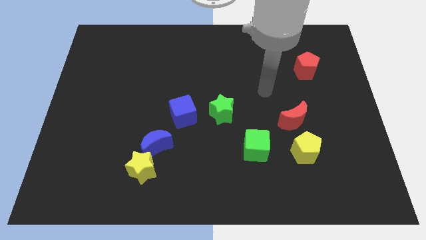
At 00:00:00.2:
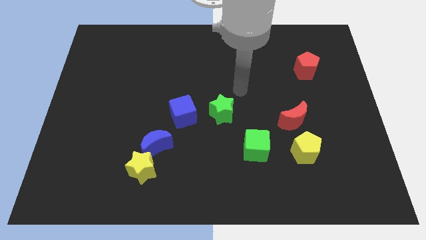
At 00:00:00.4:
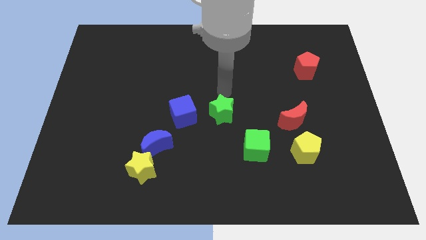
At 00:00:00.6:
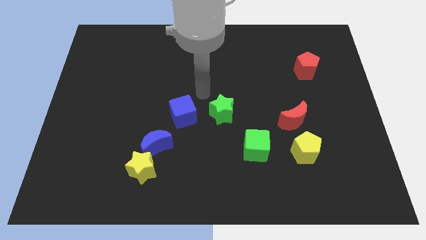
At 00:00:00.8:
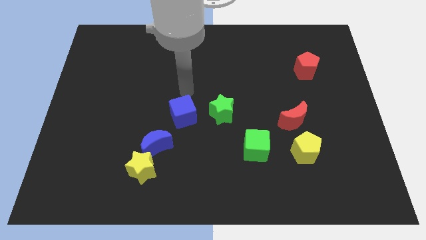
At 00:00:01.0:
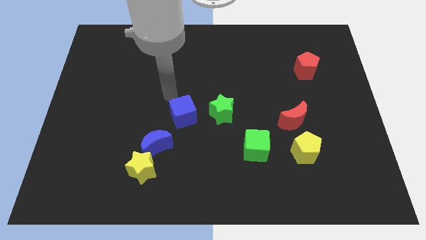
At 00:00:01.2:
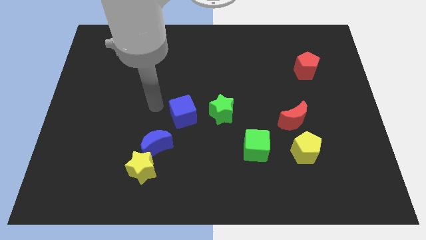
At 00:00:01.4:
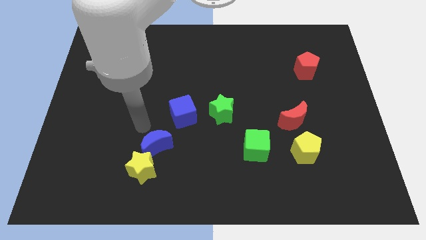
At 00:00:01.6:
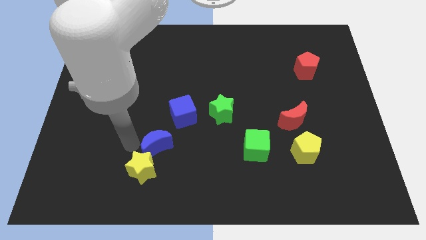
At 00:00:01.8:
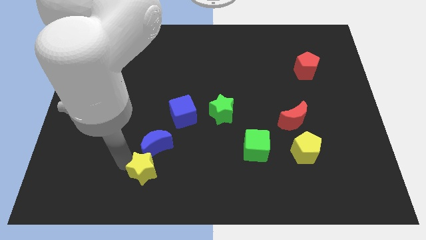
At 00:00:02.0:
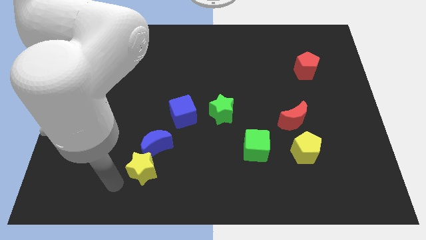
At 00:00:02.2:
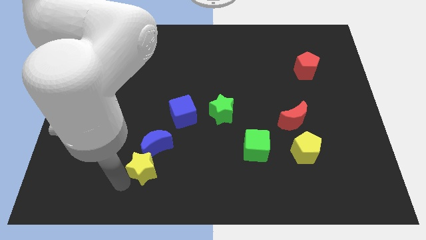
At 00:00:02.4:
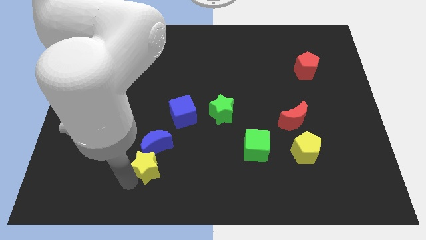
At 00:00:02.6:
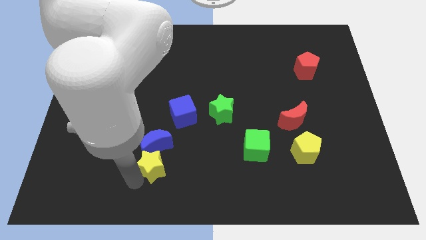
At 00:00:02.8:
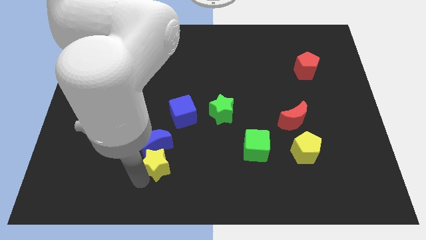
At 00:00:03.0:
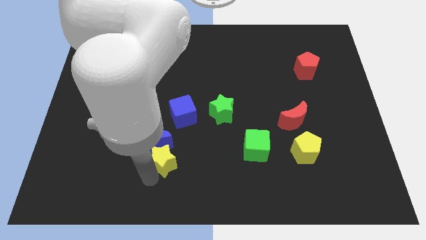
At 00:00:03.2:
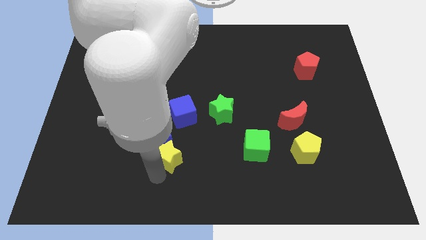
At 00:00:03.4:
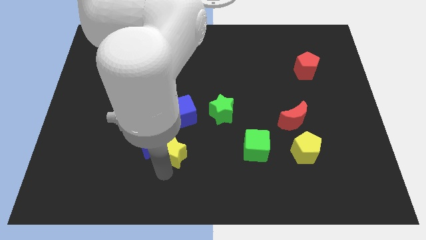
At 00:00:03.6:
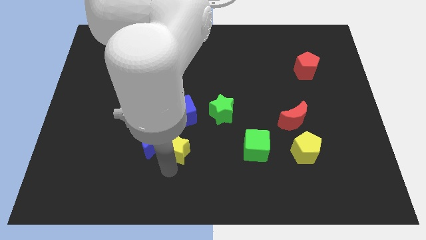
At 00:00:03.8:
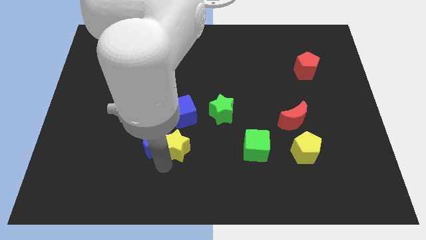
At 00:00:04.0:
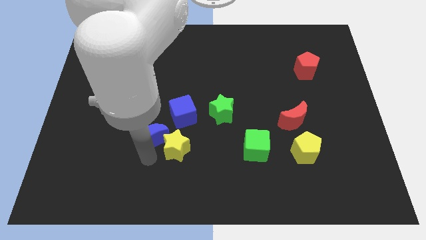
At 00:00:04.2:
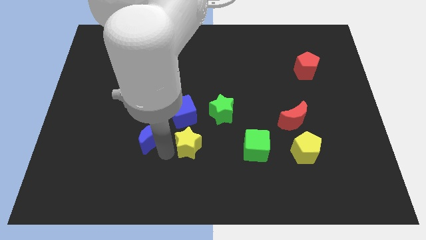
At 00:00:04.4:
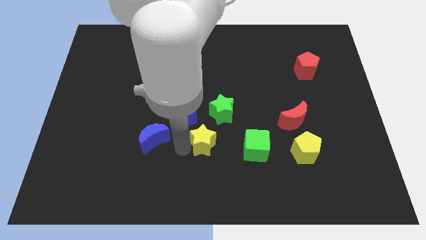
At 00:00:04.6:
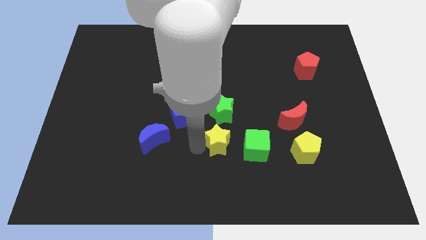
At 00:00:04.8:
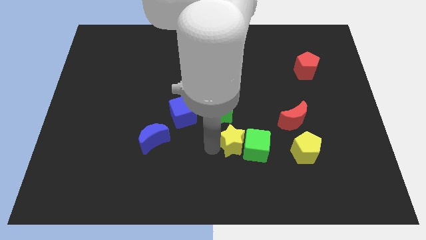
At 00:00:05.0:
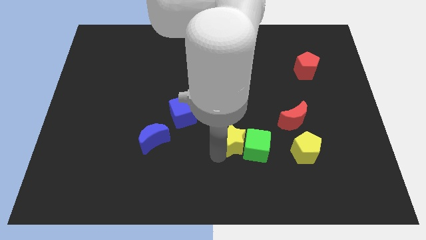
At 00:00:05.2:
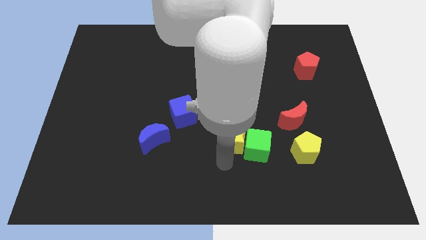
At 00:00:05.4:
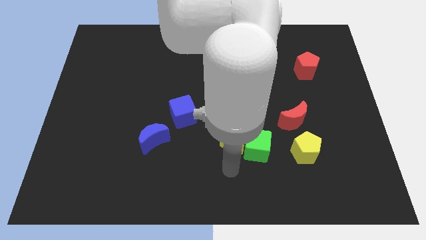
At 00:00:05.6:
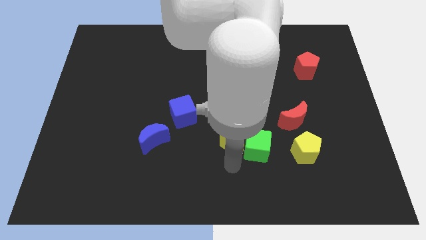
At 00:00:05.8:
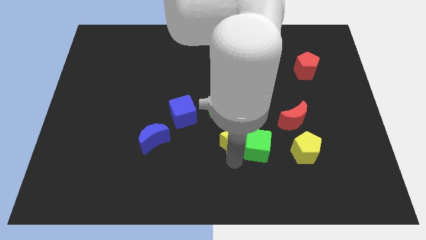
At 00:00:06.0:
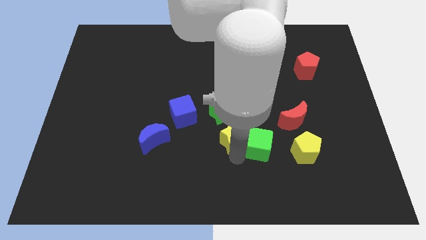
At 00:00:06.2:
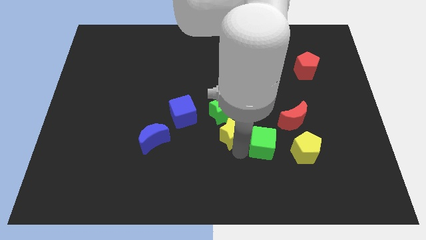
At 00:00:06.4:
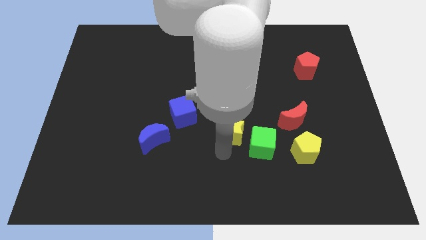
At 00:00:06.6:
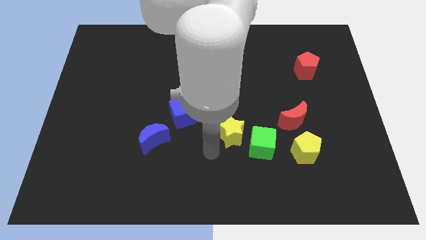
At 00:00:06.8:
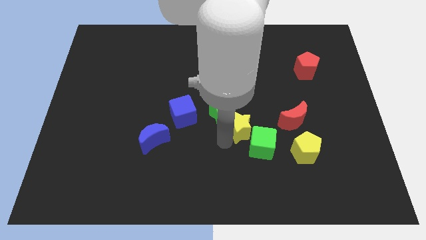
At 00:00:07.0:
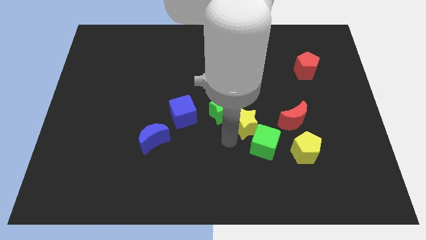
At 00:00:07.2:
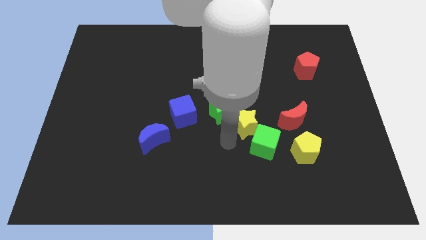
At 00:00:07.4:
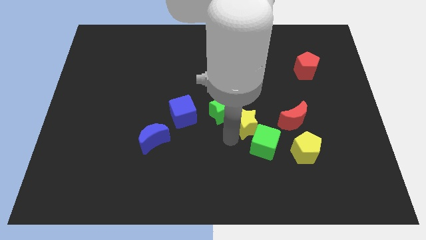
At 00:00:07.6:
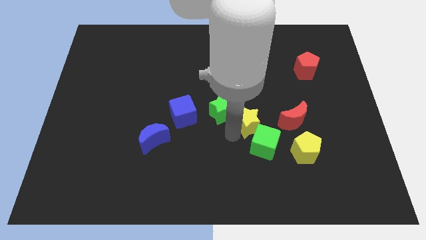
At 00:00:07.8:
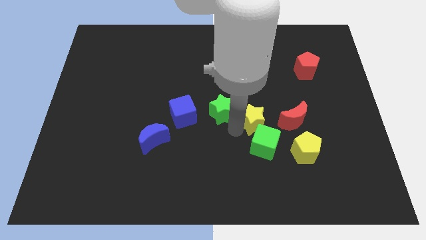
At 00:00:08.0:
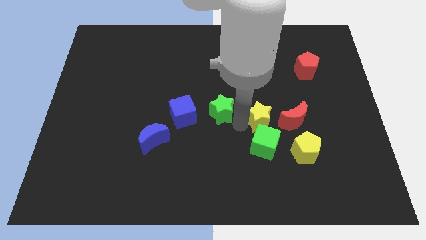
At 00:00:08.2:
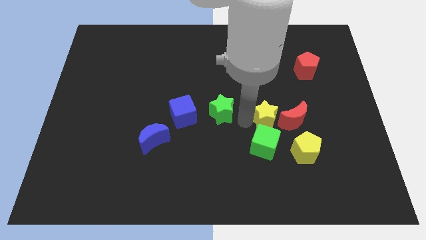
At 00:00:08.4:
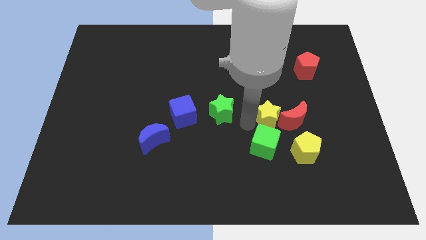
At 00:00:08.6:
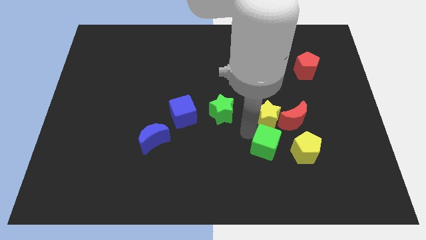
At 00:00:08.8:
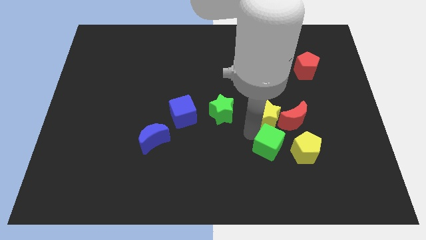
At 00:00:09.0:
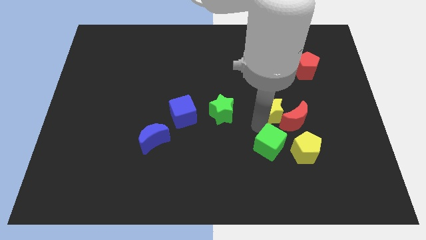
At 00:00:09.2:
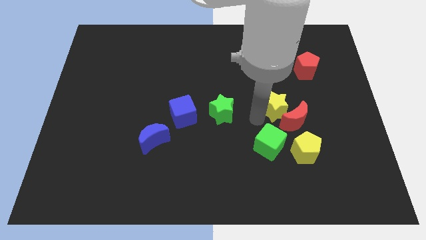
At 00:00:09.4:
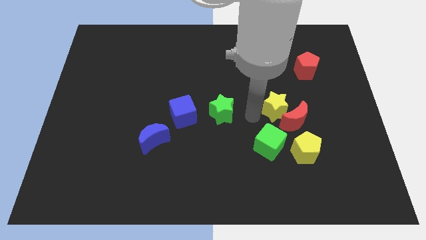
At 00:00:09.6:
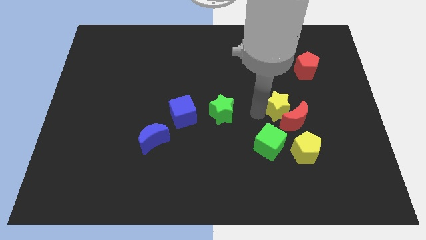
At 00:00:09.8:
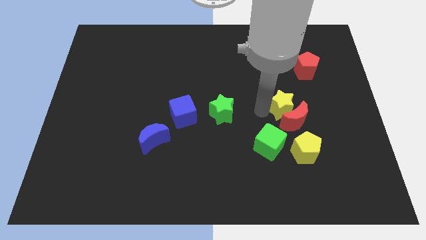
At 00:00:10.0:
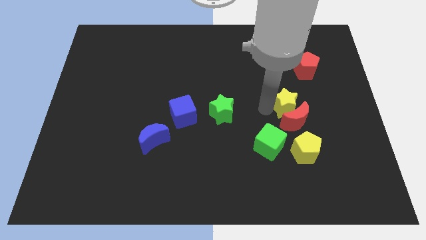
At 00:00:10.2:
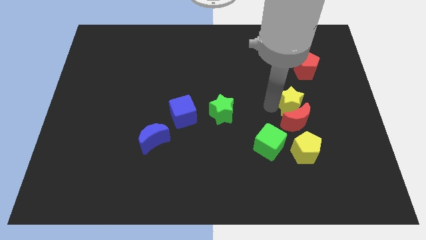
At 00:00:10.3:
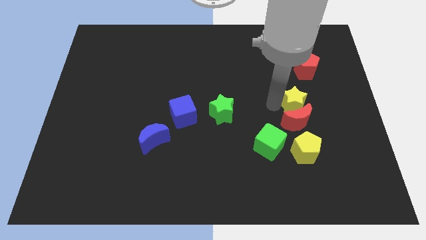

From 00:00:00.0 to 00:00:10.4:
move the yellow star below the red pentagon

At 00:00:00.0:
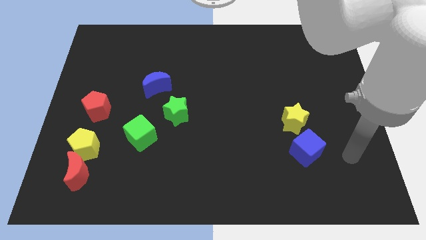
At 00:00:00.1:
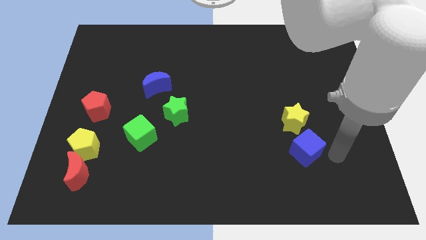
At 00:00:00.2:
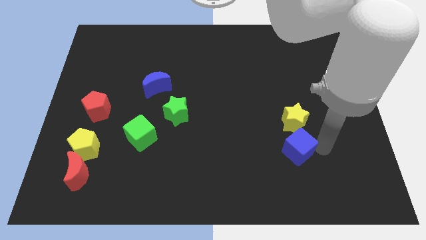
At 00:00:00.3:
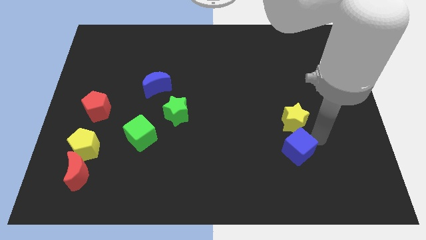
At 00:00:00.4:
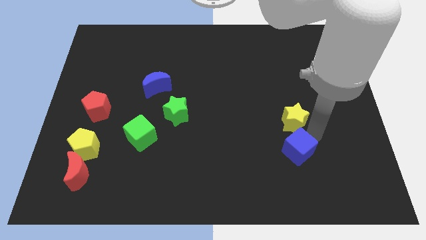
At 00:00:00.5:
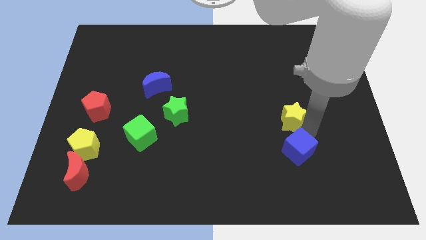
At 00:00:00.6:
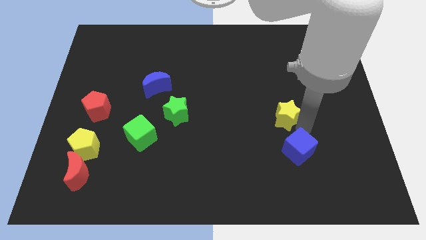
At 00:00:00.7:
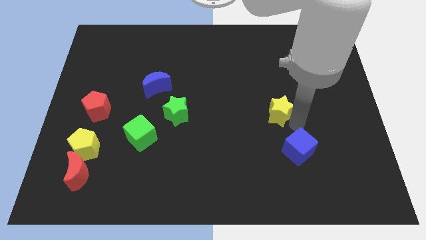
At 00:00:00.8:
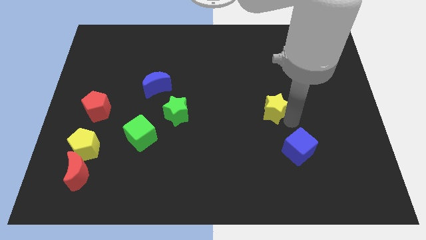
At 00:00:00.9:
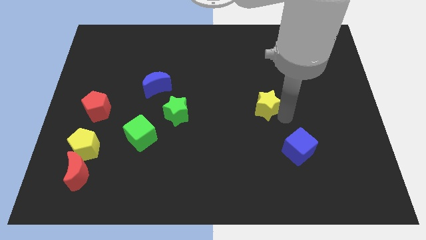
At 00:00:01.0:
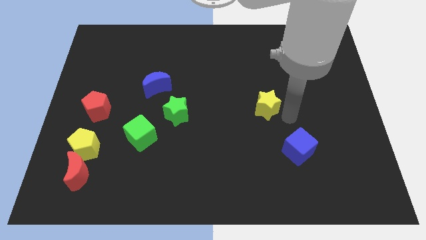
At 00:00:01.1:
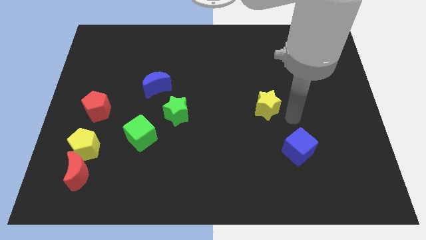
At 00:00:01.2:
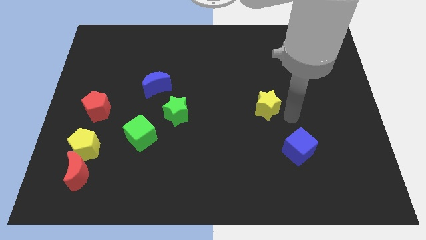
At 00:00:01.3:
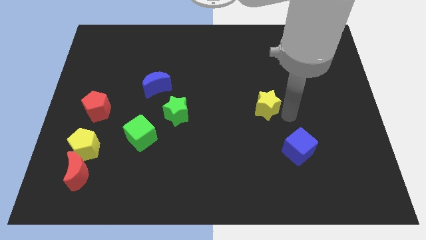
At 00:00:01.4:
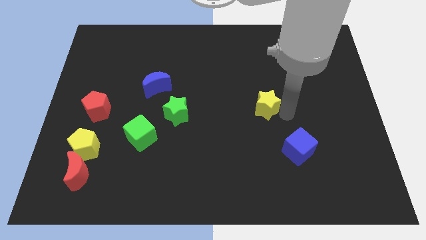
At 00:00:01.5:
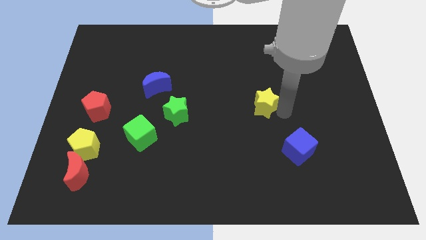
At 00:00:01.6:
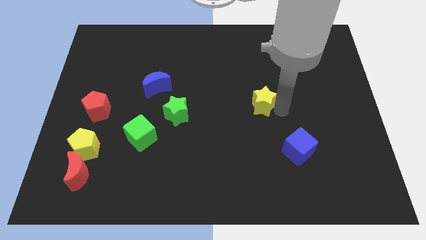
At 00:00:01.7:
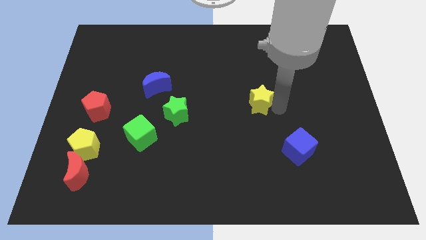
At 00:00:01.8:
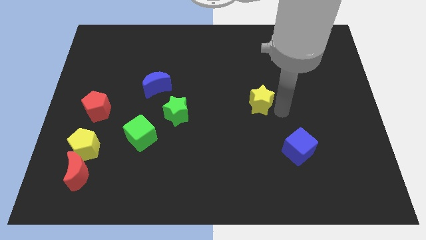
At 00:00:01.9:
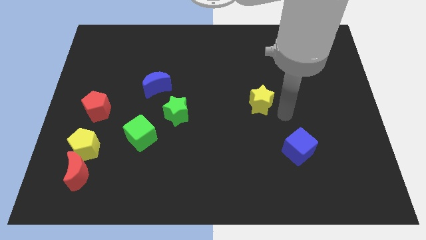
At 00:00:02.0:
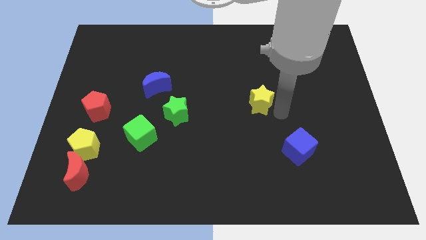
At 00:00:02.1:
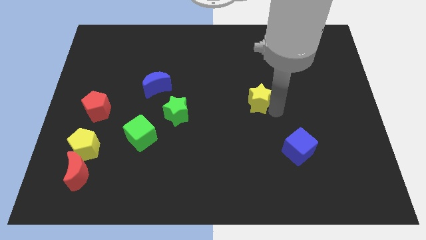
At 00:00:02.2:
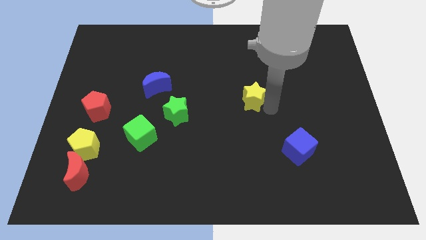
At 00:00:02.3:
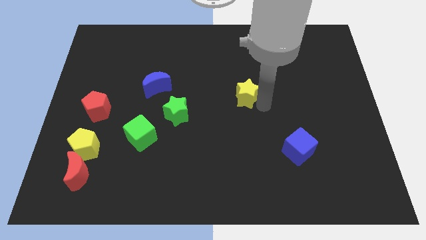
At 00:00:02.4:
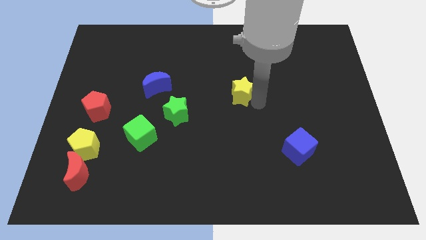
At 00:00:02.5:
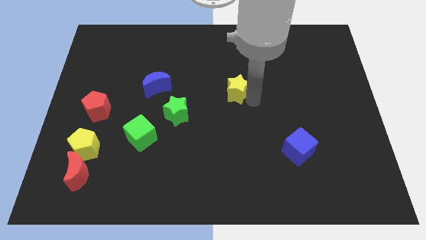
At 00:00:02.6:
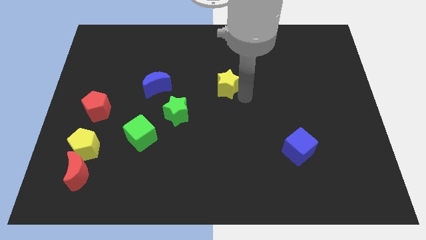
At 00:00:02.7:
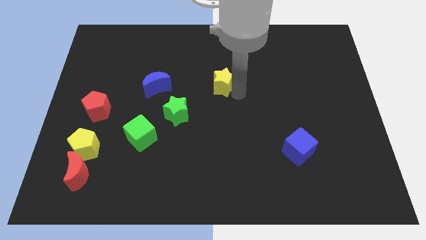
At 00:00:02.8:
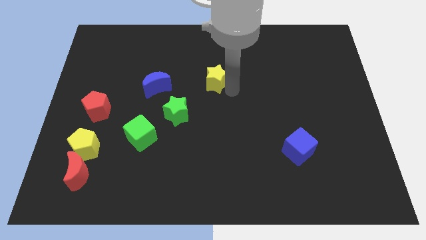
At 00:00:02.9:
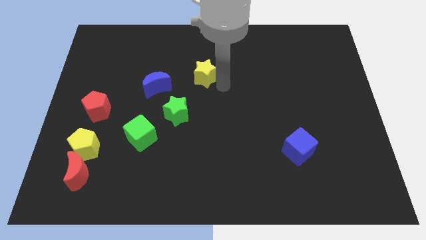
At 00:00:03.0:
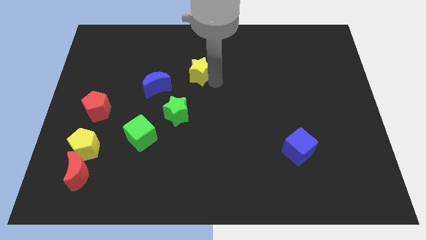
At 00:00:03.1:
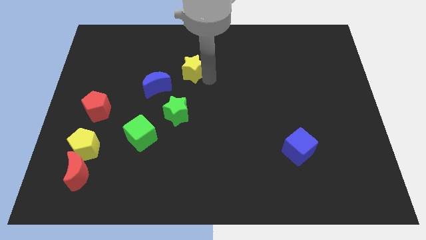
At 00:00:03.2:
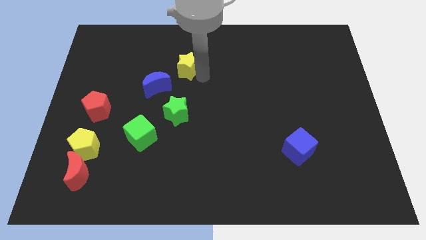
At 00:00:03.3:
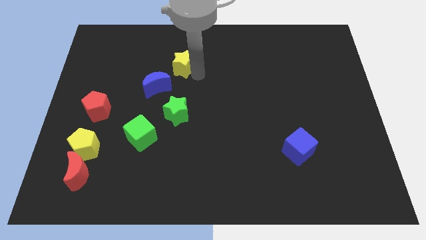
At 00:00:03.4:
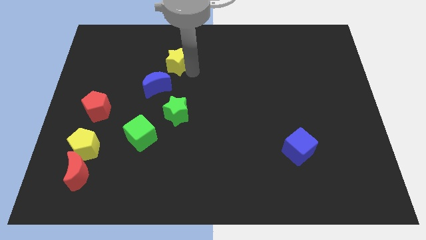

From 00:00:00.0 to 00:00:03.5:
slide the yellow star to the top side of the blue moon
